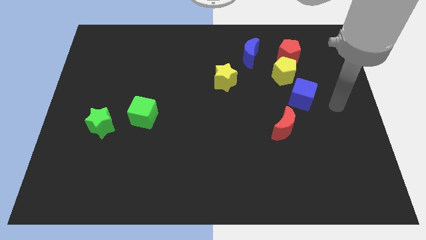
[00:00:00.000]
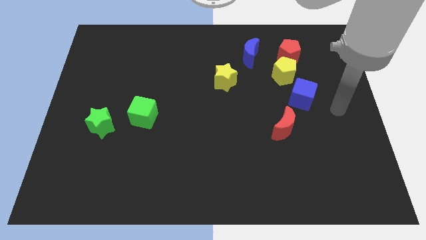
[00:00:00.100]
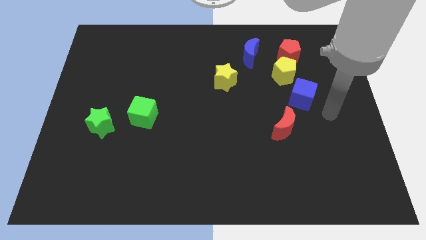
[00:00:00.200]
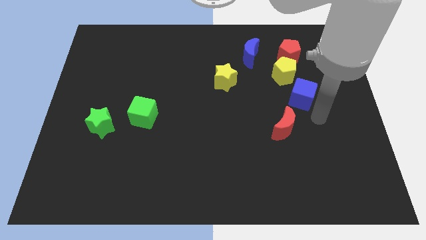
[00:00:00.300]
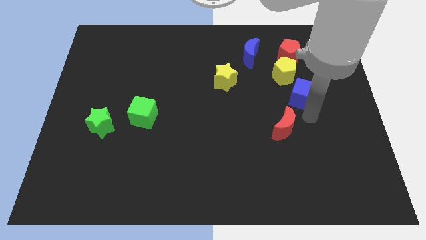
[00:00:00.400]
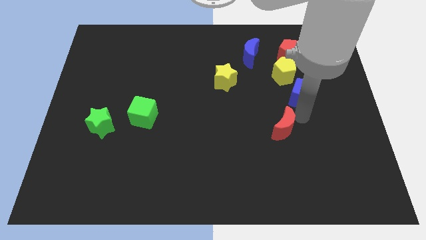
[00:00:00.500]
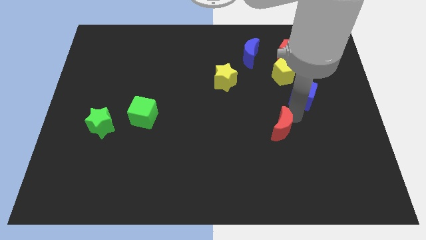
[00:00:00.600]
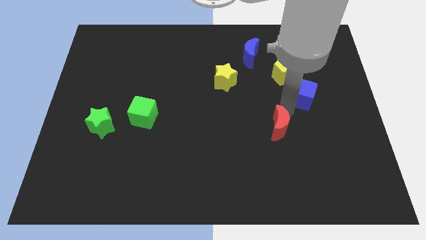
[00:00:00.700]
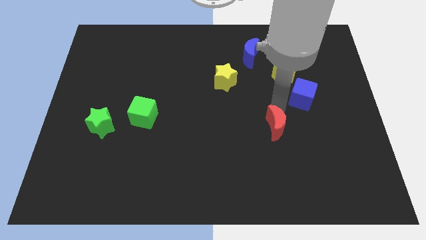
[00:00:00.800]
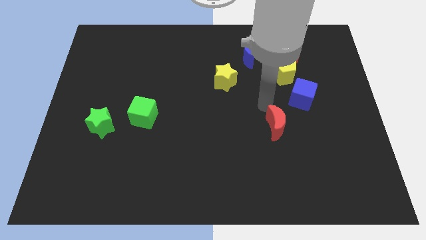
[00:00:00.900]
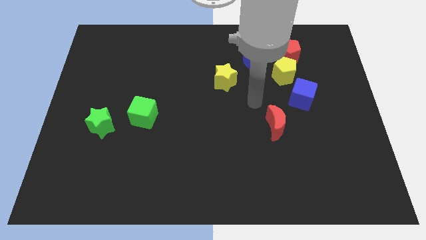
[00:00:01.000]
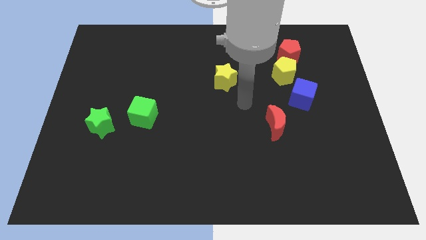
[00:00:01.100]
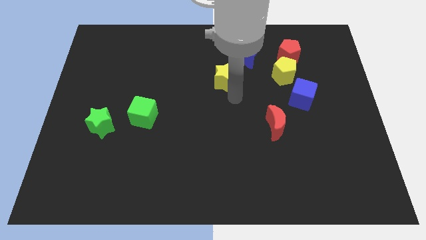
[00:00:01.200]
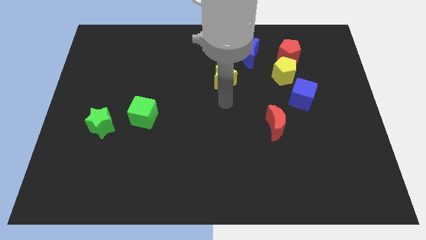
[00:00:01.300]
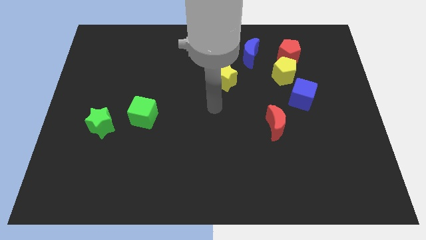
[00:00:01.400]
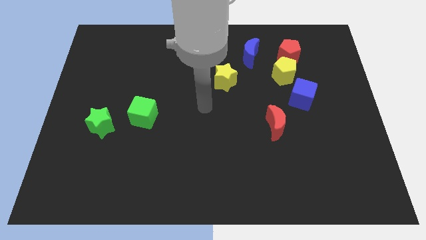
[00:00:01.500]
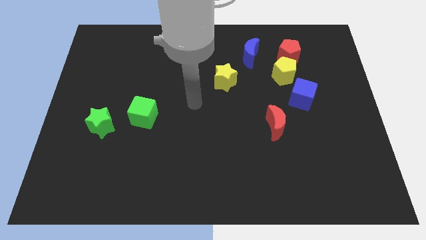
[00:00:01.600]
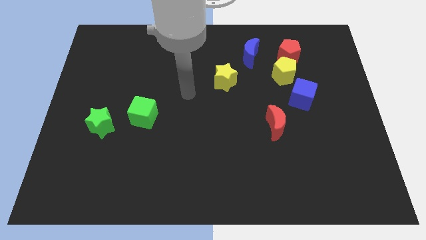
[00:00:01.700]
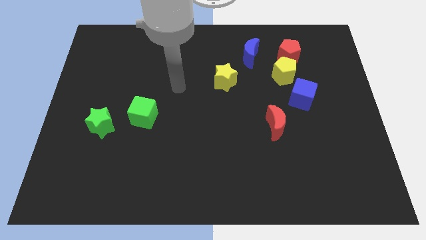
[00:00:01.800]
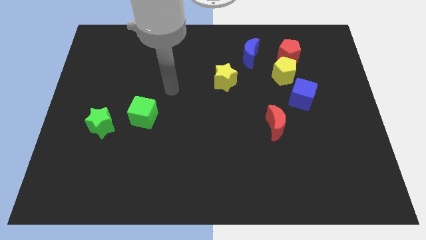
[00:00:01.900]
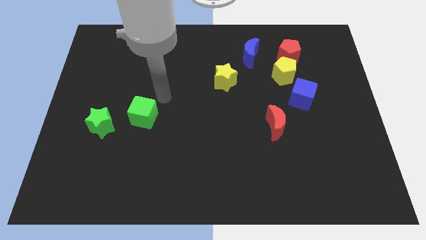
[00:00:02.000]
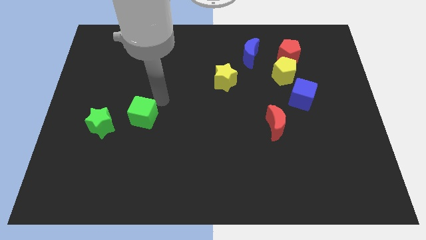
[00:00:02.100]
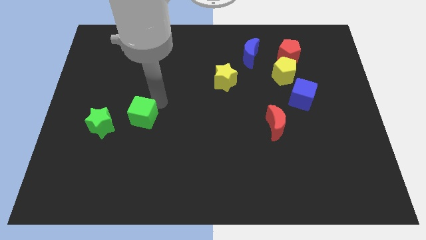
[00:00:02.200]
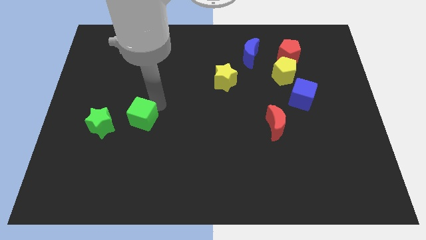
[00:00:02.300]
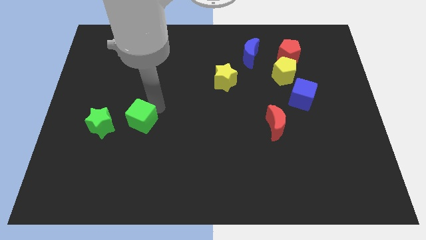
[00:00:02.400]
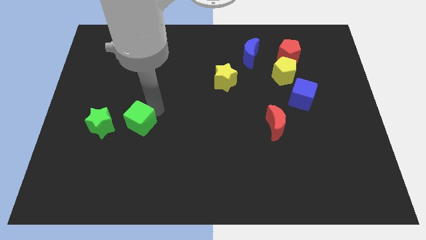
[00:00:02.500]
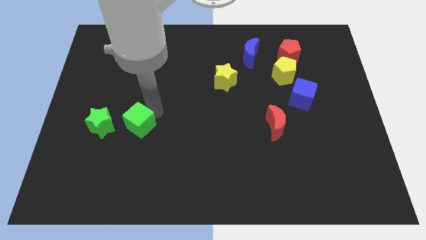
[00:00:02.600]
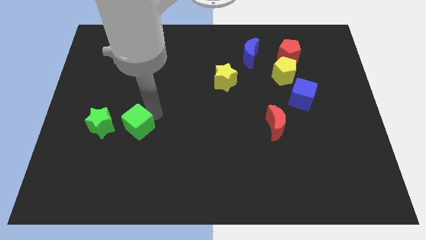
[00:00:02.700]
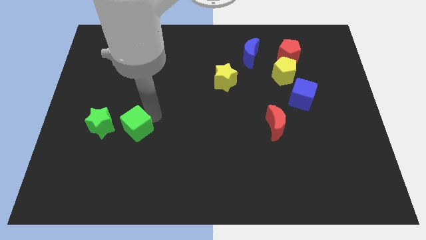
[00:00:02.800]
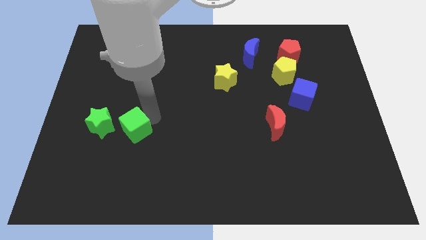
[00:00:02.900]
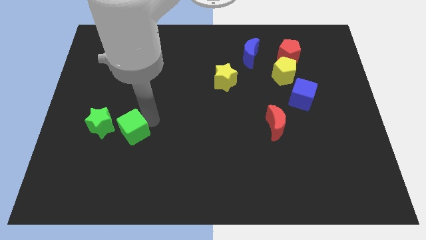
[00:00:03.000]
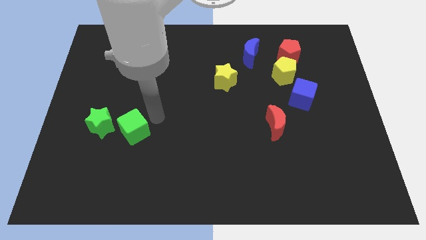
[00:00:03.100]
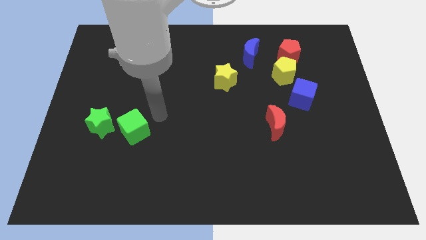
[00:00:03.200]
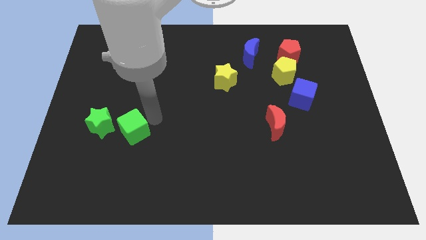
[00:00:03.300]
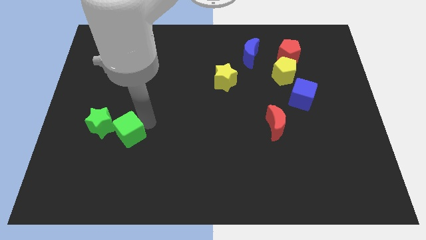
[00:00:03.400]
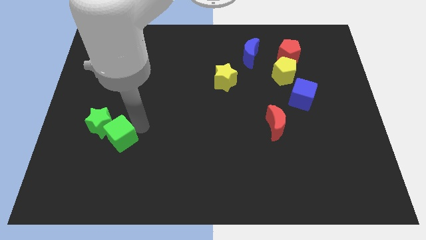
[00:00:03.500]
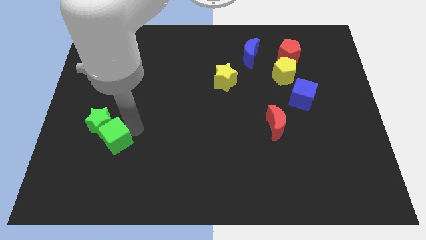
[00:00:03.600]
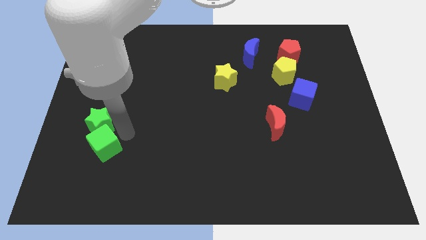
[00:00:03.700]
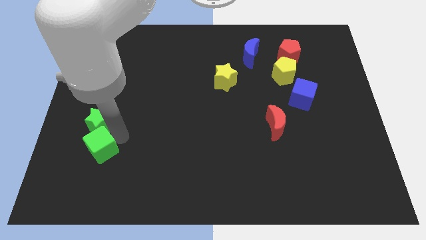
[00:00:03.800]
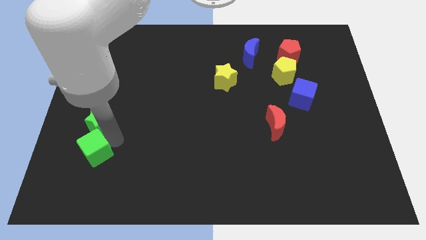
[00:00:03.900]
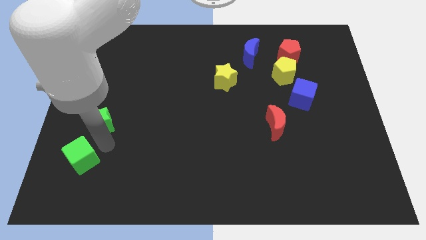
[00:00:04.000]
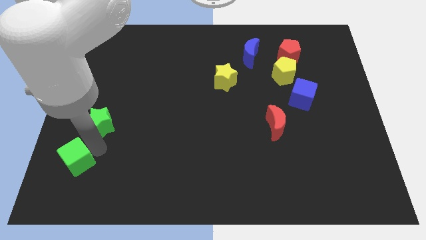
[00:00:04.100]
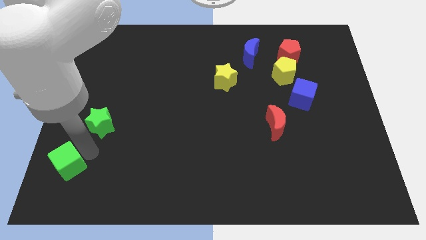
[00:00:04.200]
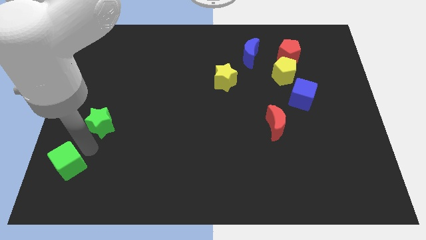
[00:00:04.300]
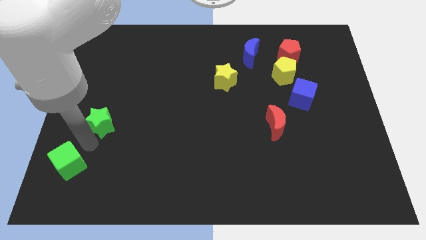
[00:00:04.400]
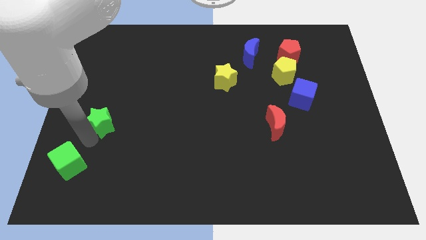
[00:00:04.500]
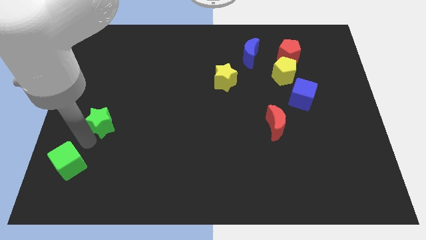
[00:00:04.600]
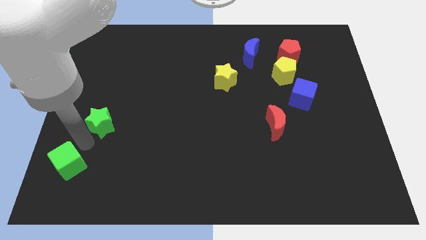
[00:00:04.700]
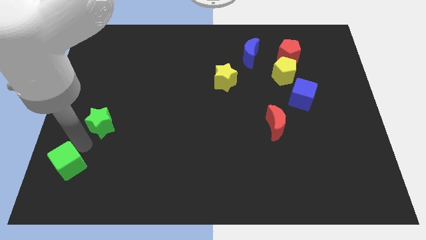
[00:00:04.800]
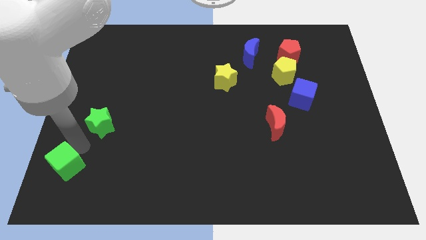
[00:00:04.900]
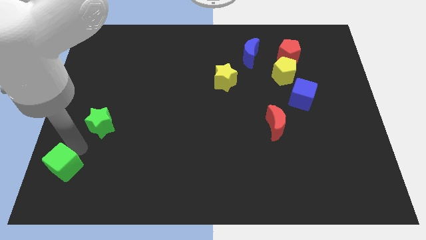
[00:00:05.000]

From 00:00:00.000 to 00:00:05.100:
put the green cube to the bottom left of the board

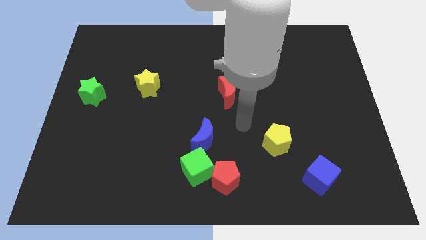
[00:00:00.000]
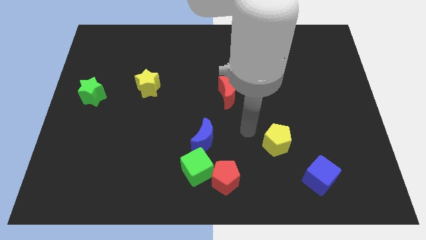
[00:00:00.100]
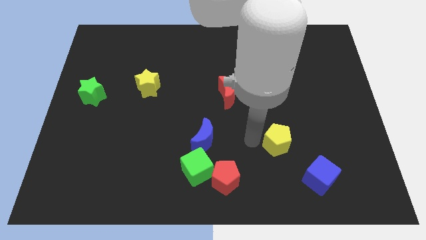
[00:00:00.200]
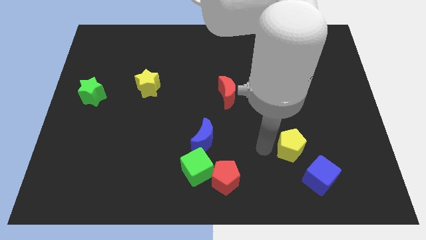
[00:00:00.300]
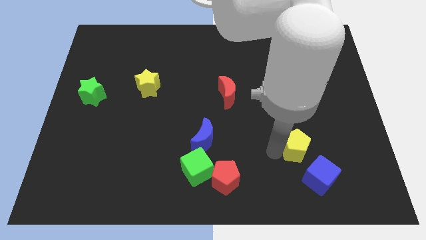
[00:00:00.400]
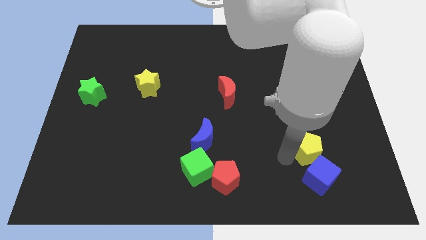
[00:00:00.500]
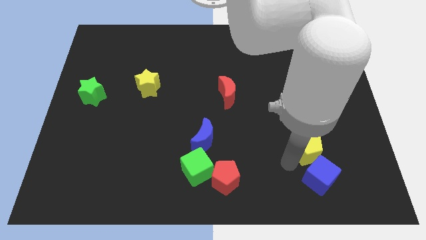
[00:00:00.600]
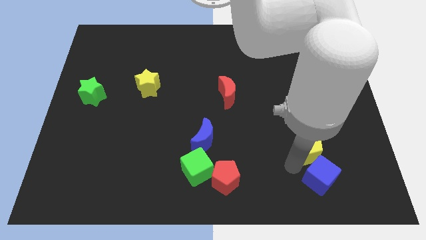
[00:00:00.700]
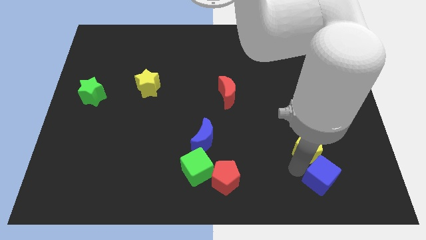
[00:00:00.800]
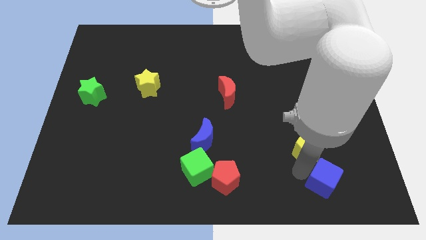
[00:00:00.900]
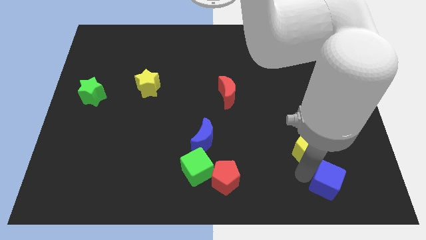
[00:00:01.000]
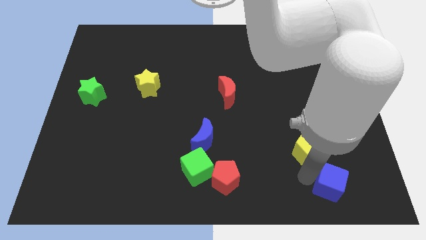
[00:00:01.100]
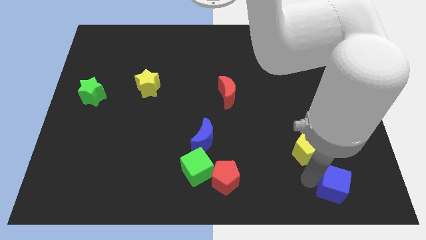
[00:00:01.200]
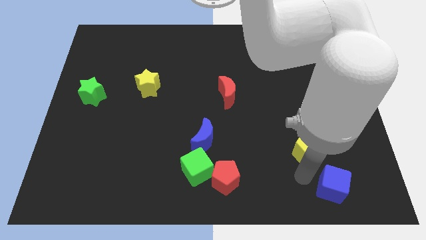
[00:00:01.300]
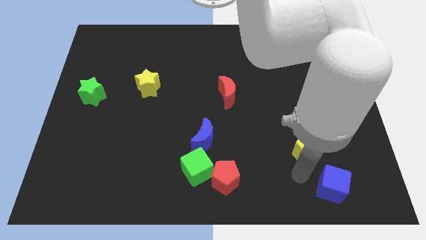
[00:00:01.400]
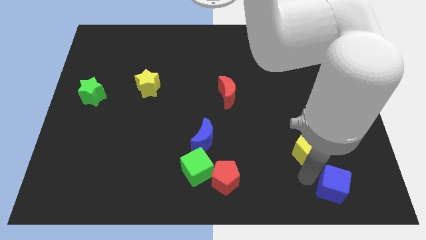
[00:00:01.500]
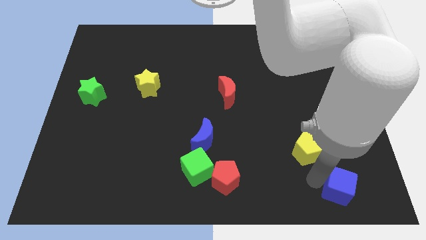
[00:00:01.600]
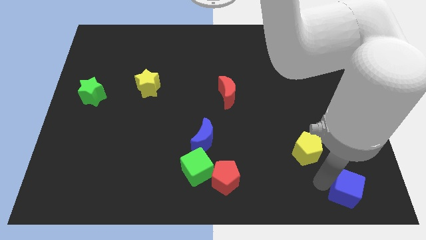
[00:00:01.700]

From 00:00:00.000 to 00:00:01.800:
slide the blue cube to the lower right corner
